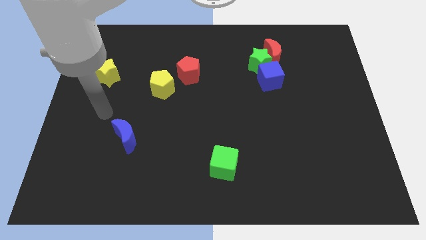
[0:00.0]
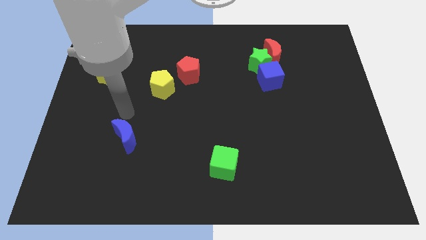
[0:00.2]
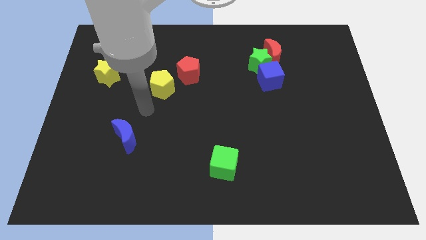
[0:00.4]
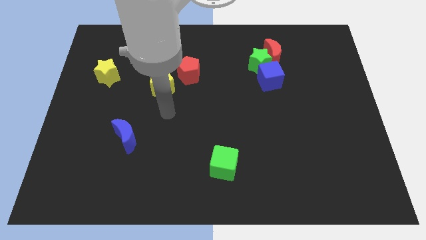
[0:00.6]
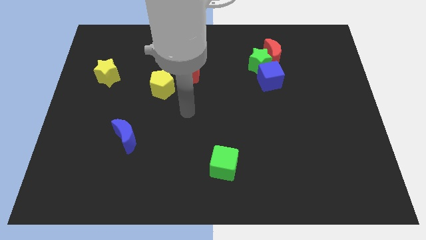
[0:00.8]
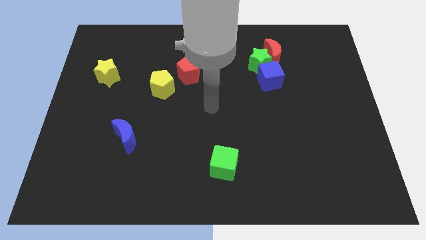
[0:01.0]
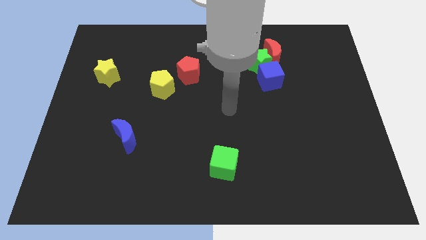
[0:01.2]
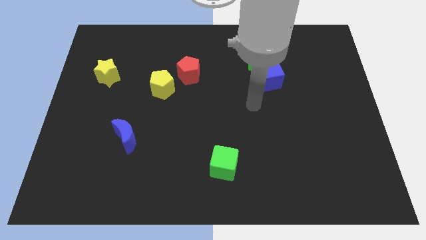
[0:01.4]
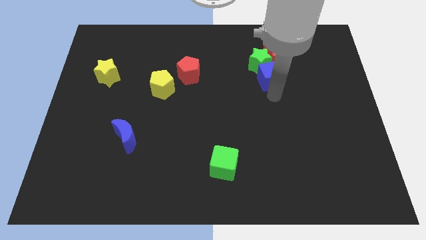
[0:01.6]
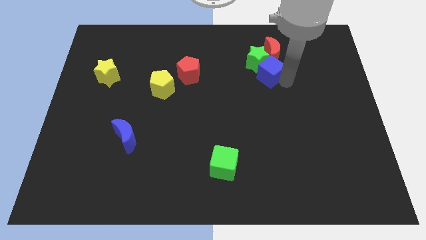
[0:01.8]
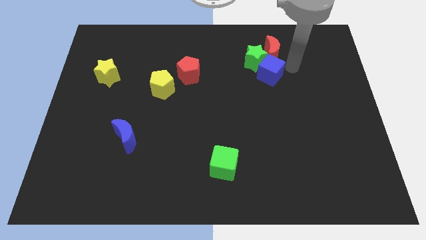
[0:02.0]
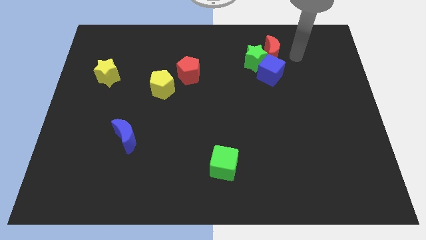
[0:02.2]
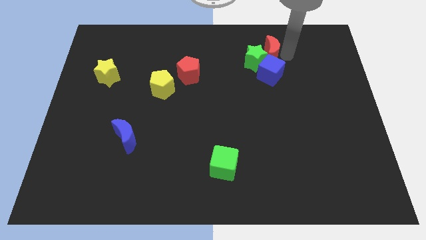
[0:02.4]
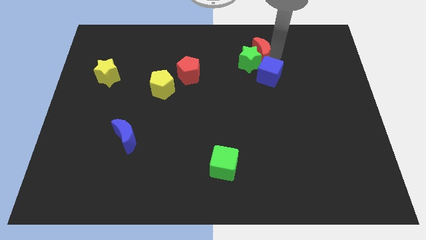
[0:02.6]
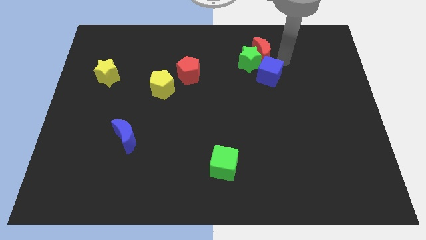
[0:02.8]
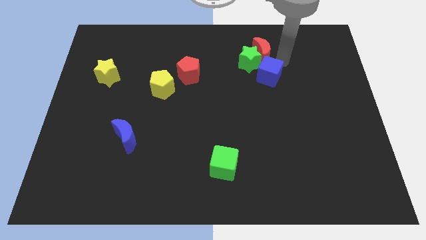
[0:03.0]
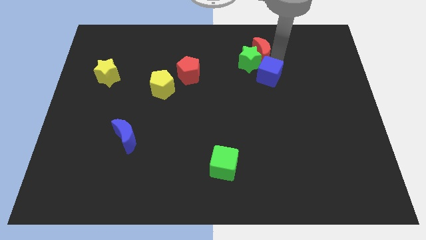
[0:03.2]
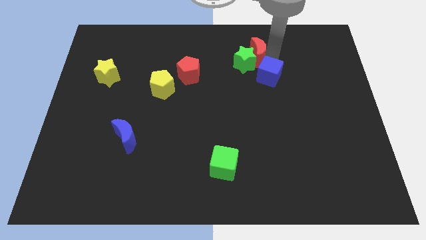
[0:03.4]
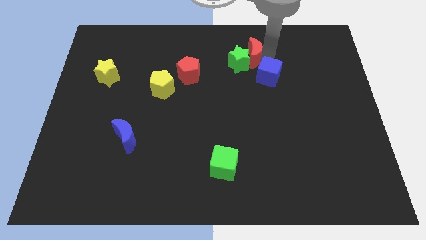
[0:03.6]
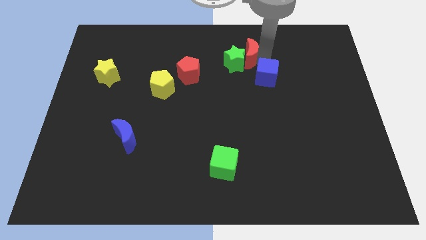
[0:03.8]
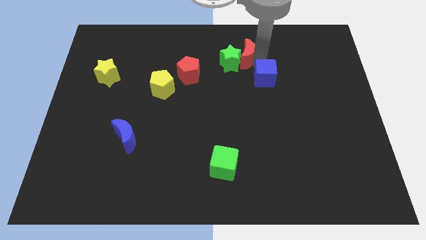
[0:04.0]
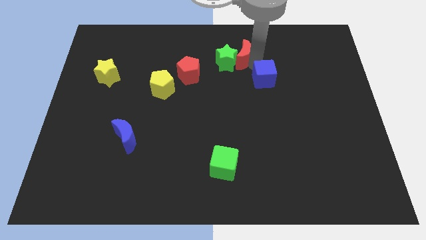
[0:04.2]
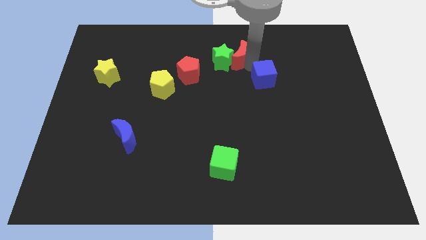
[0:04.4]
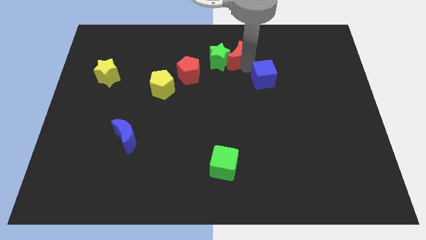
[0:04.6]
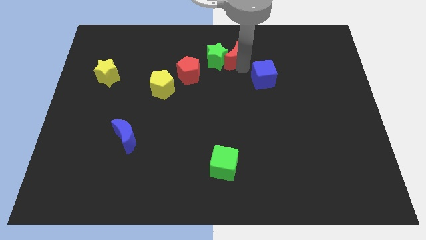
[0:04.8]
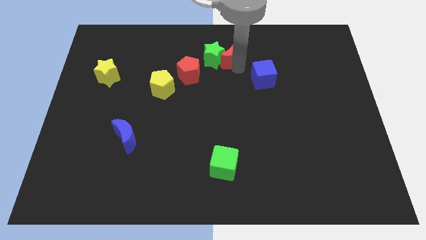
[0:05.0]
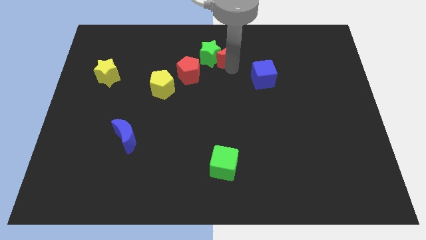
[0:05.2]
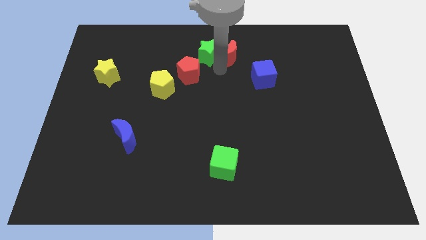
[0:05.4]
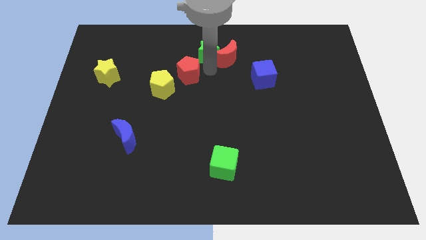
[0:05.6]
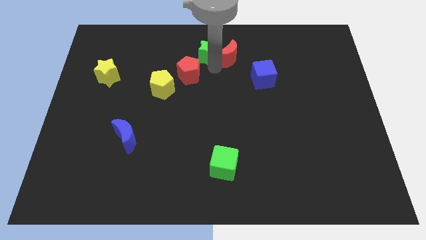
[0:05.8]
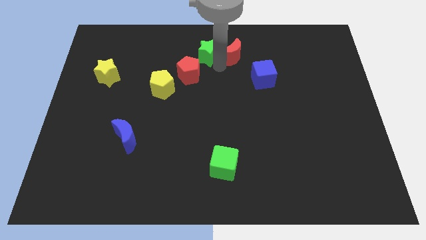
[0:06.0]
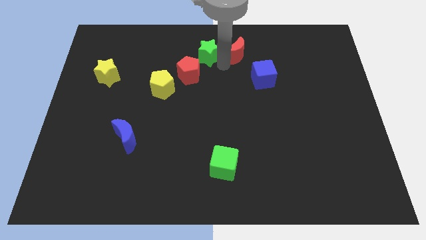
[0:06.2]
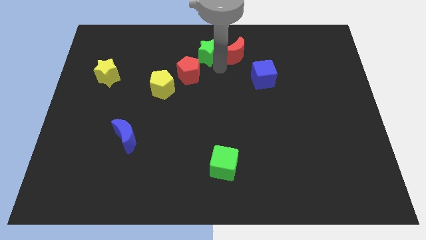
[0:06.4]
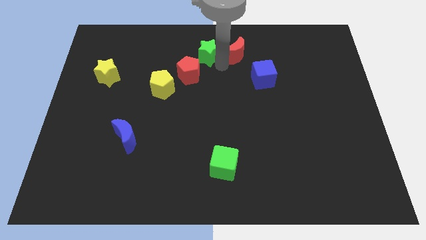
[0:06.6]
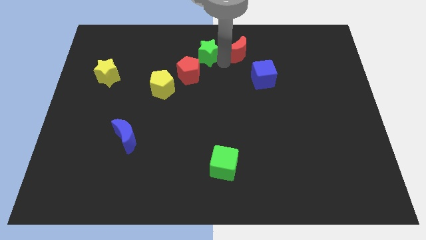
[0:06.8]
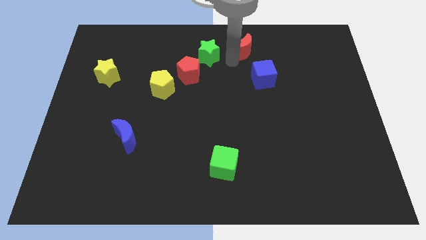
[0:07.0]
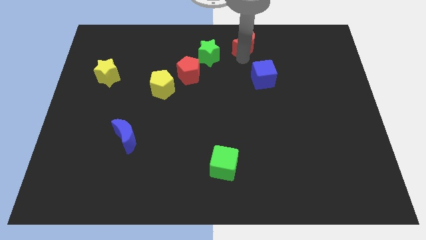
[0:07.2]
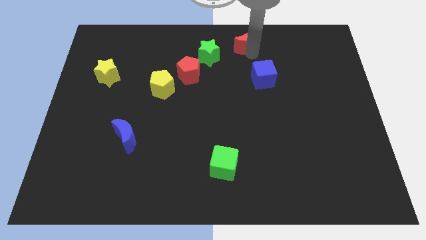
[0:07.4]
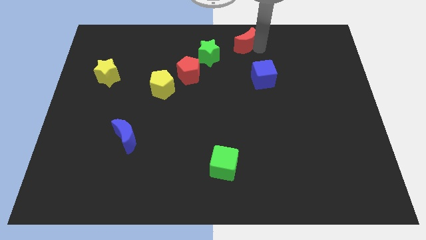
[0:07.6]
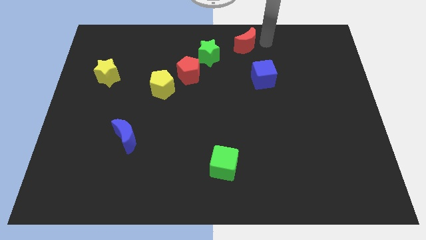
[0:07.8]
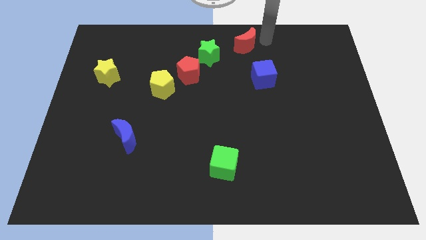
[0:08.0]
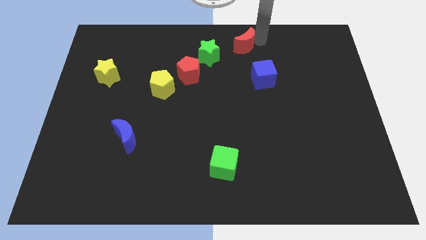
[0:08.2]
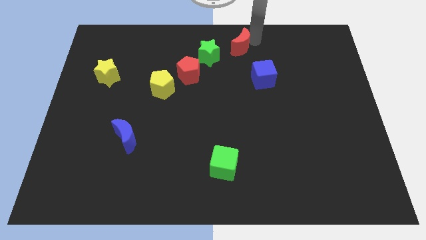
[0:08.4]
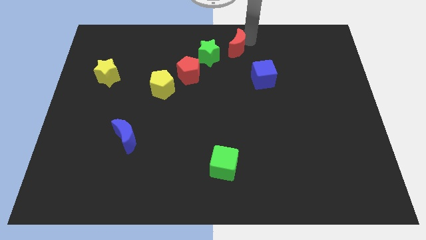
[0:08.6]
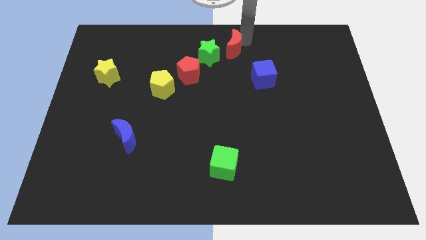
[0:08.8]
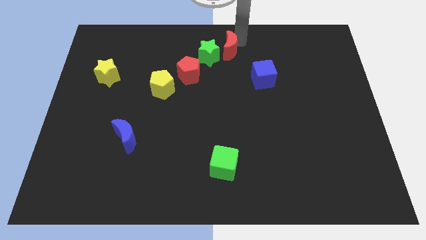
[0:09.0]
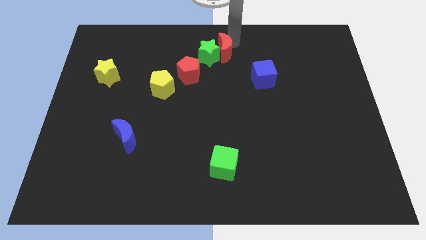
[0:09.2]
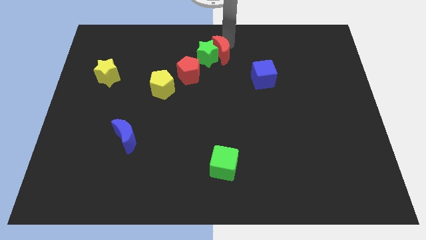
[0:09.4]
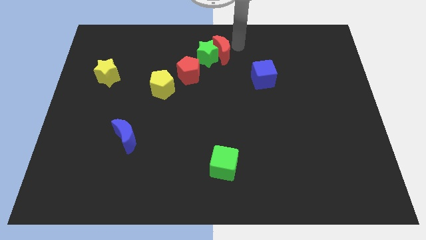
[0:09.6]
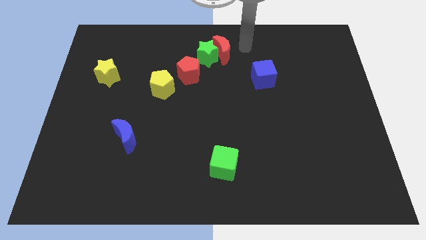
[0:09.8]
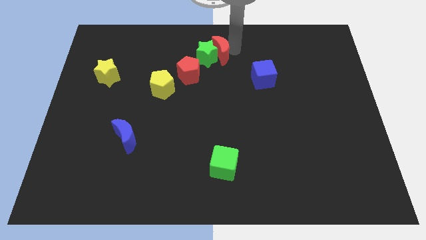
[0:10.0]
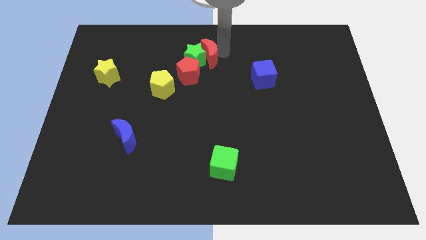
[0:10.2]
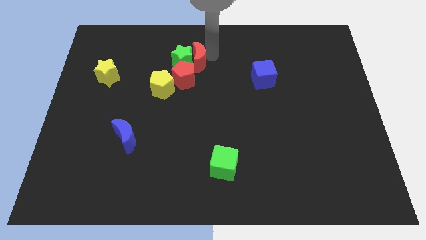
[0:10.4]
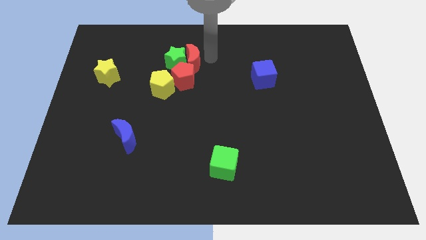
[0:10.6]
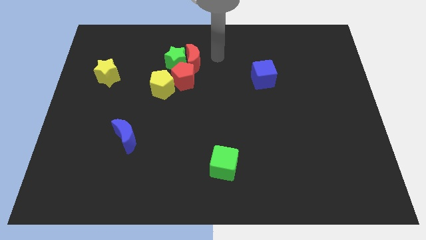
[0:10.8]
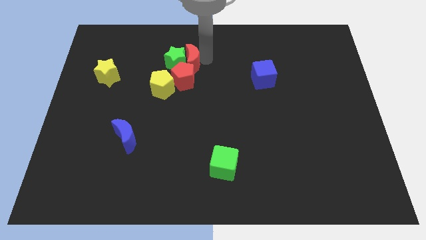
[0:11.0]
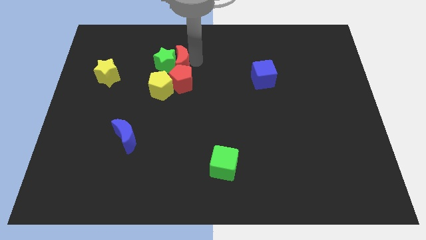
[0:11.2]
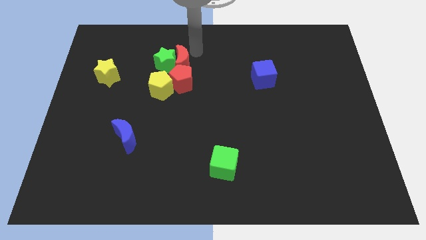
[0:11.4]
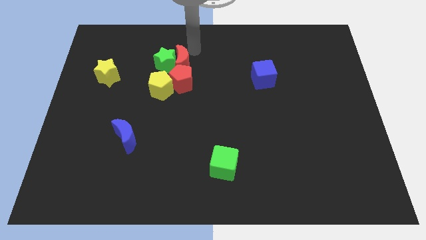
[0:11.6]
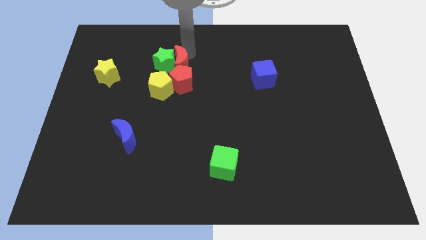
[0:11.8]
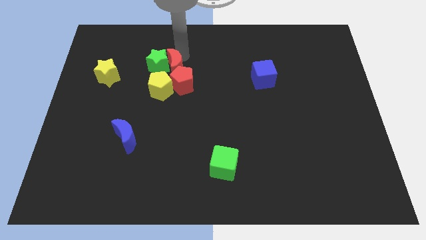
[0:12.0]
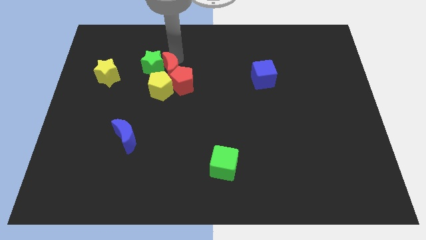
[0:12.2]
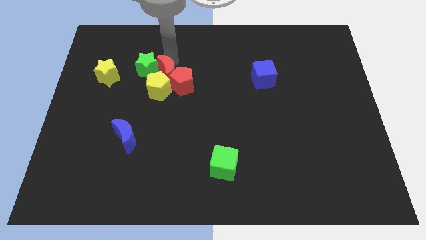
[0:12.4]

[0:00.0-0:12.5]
put the red moon close to the yellow pentagon
